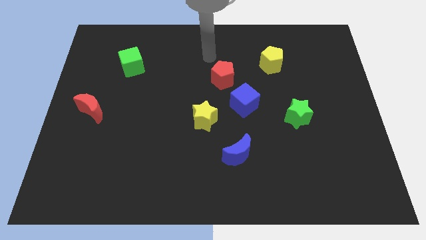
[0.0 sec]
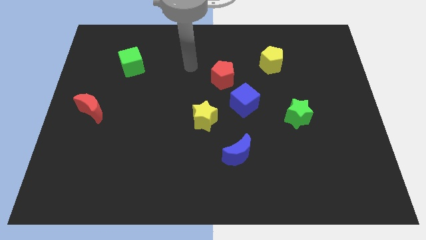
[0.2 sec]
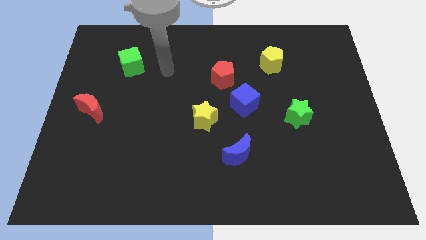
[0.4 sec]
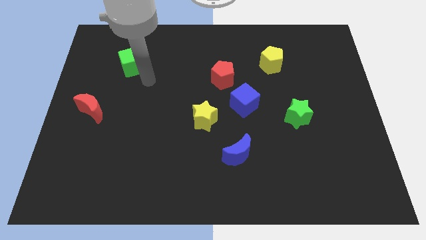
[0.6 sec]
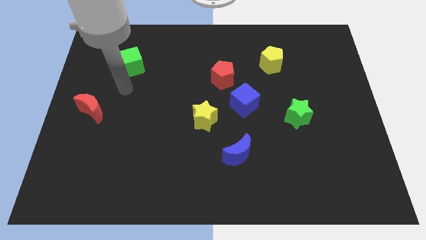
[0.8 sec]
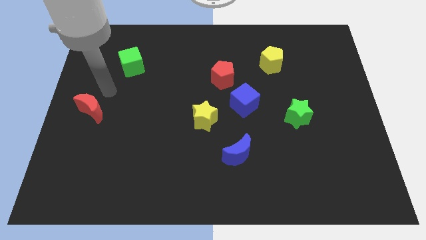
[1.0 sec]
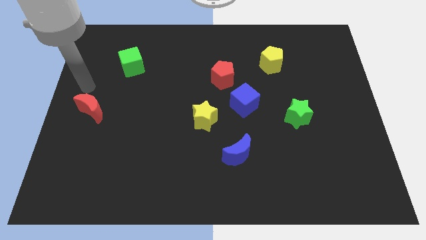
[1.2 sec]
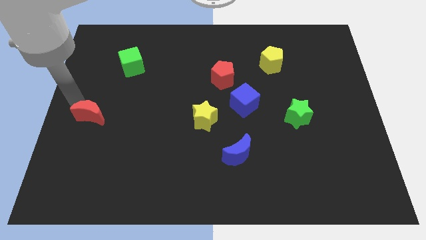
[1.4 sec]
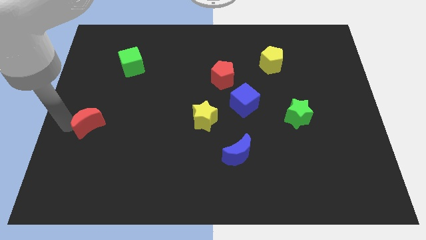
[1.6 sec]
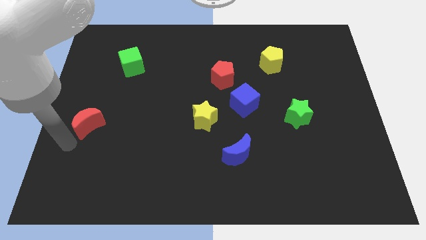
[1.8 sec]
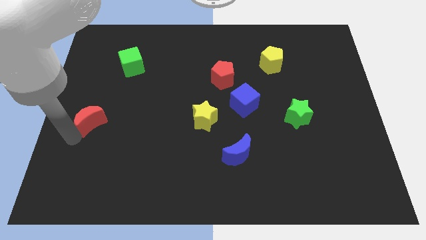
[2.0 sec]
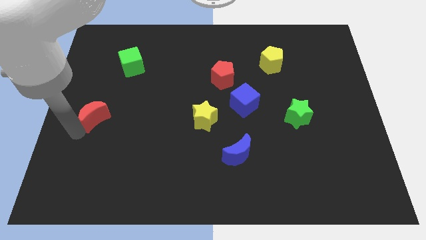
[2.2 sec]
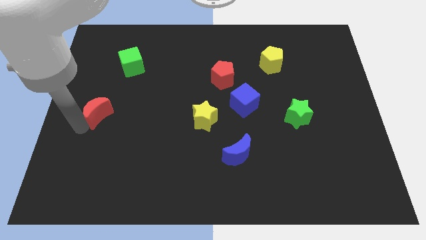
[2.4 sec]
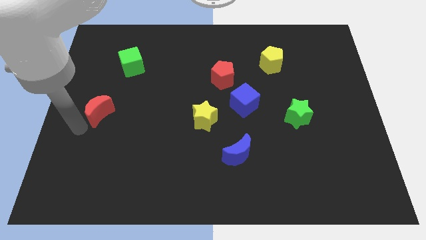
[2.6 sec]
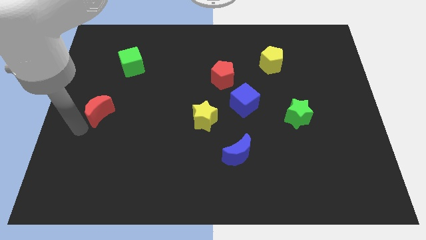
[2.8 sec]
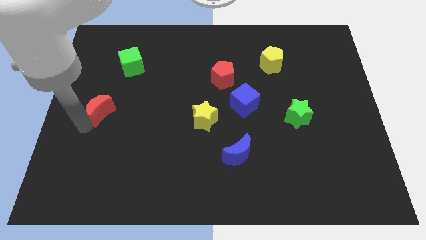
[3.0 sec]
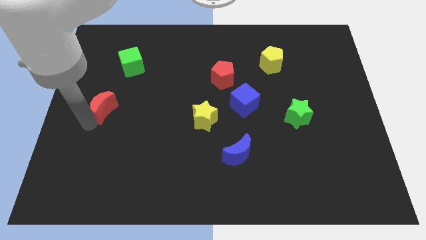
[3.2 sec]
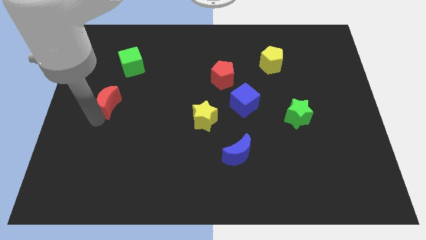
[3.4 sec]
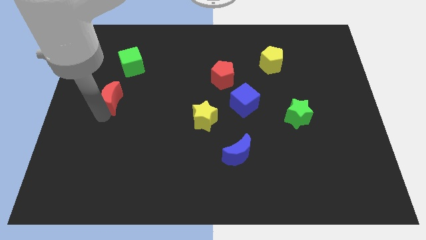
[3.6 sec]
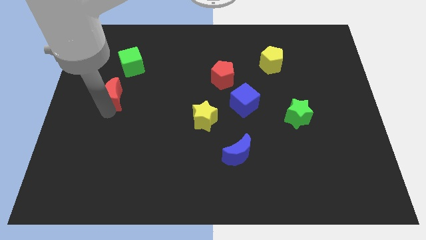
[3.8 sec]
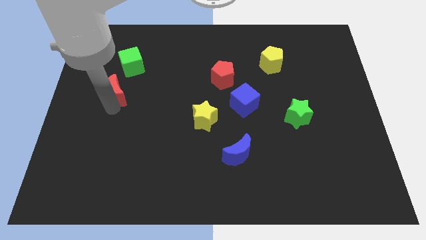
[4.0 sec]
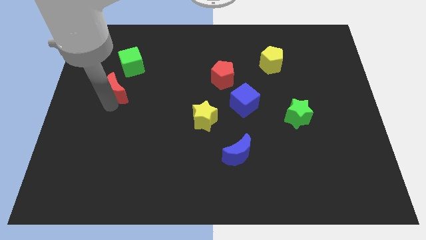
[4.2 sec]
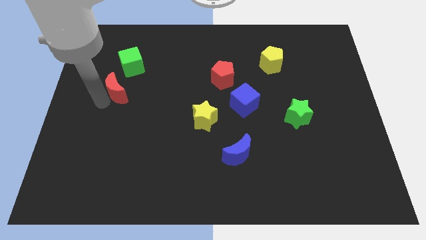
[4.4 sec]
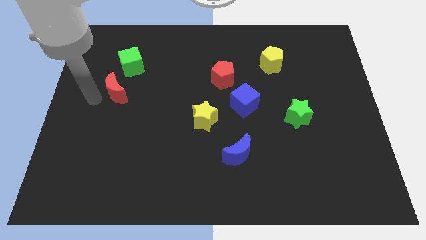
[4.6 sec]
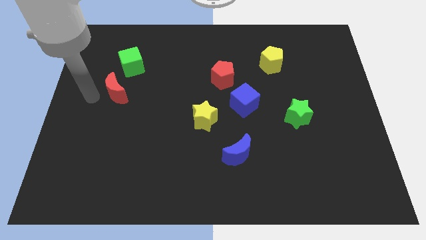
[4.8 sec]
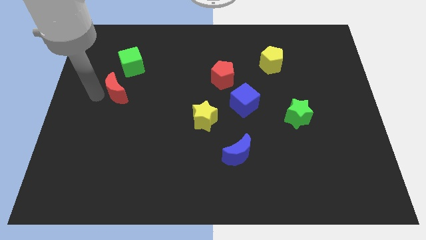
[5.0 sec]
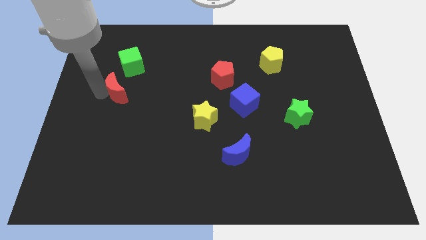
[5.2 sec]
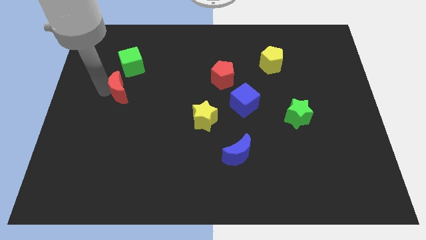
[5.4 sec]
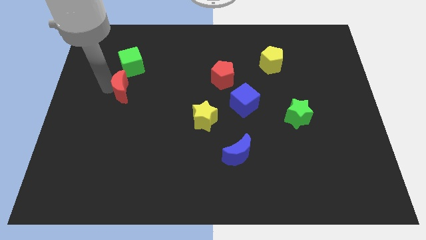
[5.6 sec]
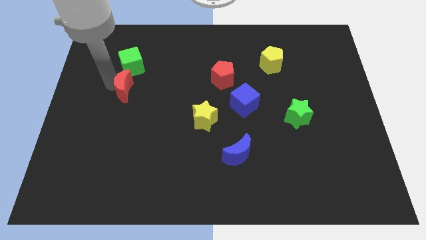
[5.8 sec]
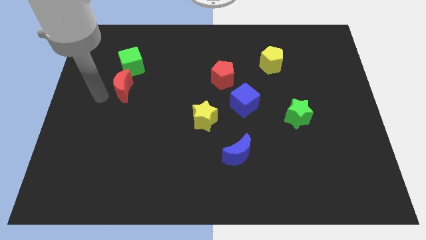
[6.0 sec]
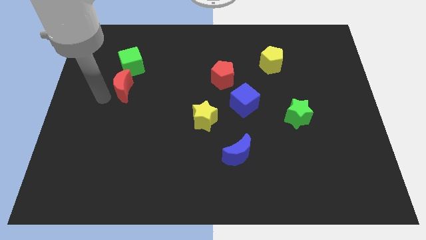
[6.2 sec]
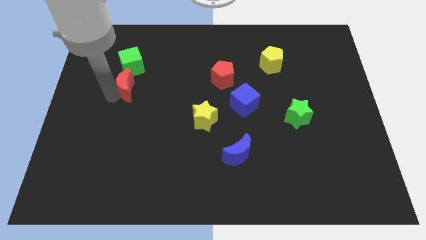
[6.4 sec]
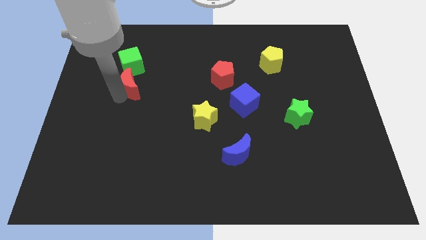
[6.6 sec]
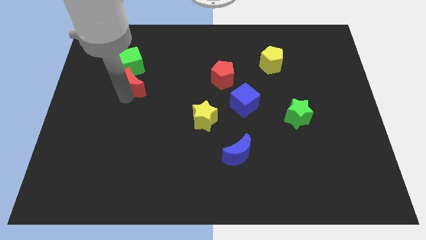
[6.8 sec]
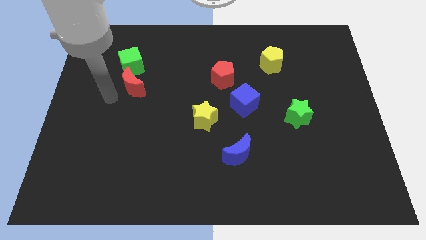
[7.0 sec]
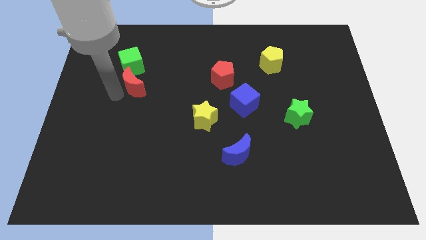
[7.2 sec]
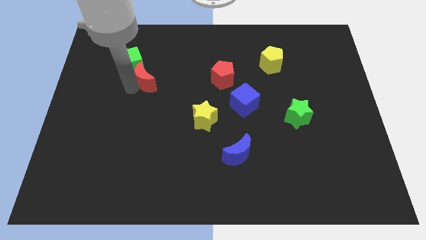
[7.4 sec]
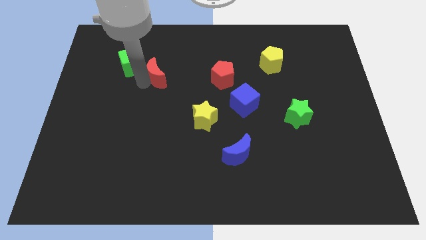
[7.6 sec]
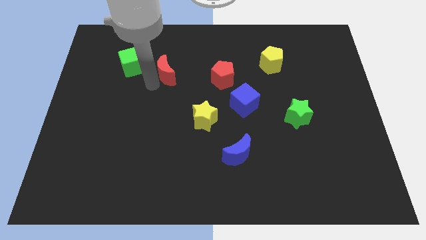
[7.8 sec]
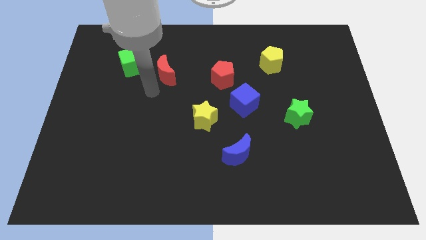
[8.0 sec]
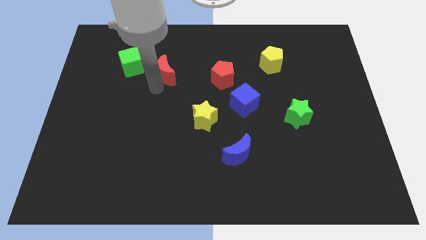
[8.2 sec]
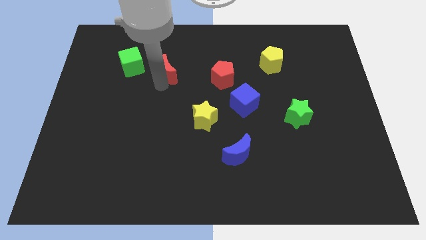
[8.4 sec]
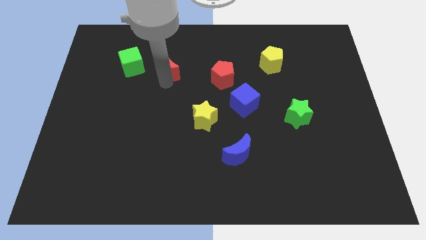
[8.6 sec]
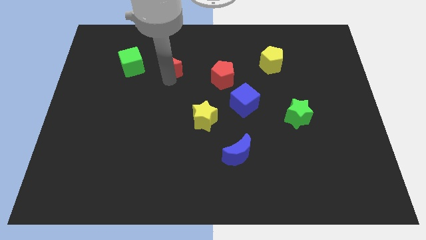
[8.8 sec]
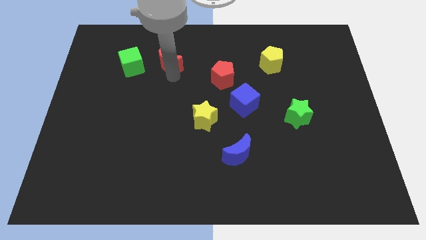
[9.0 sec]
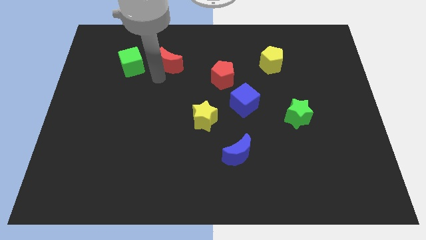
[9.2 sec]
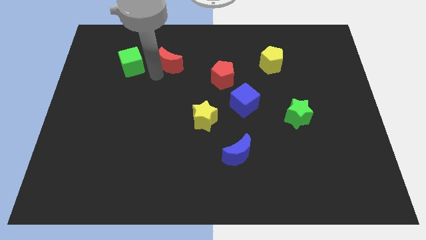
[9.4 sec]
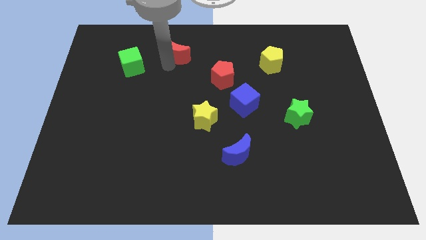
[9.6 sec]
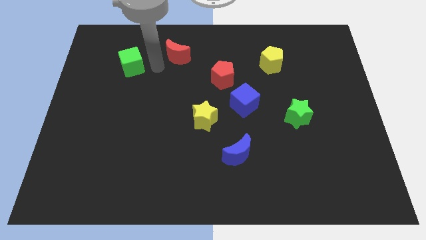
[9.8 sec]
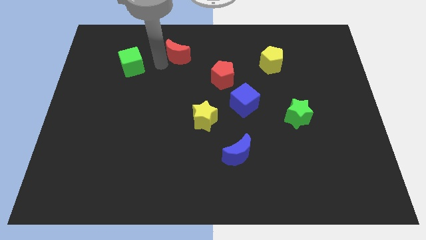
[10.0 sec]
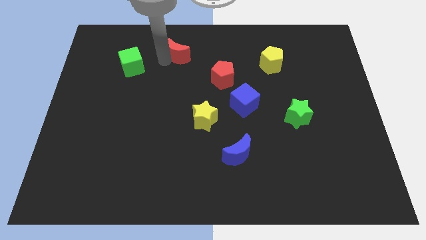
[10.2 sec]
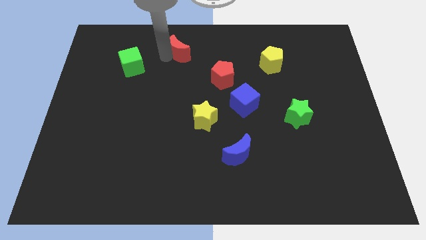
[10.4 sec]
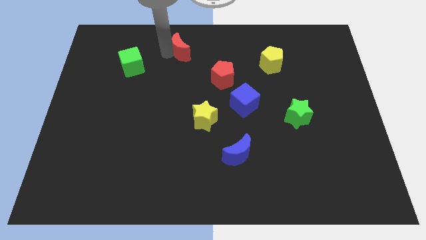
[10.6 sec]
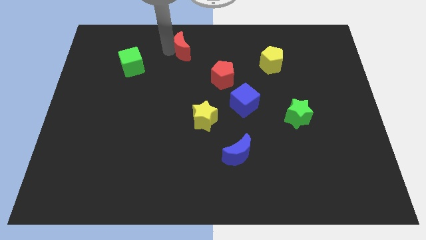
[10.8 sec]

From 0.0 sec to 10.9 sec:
put the red moon to the top side

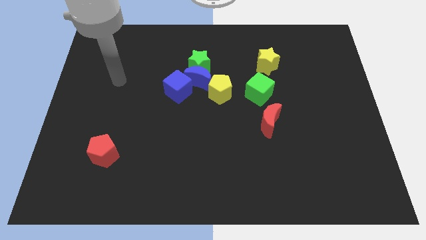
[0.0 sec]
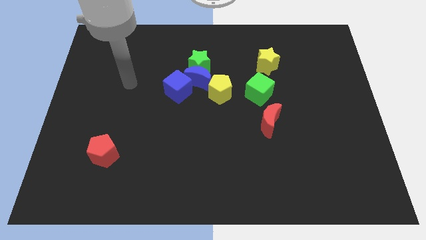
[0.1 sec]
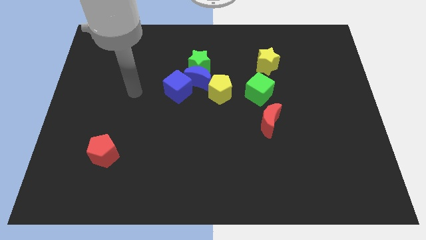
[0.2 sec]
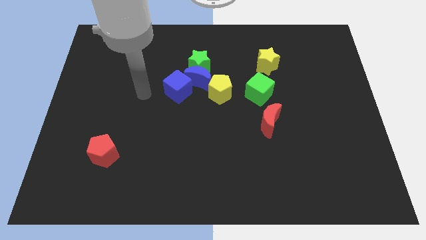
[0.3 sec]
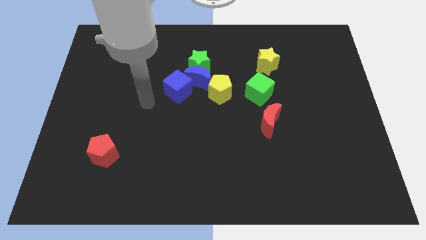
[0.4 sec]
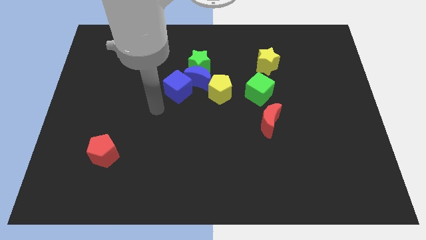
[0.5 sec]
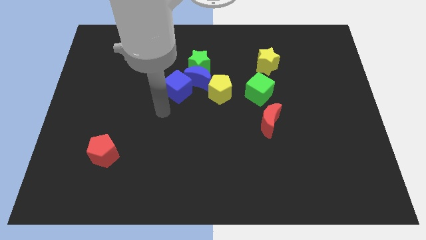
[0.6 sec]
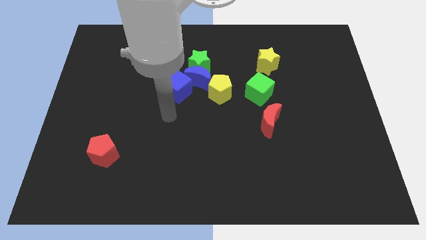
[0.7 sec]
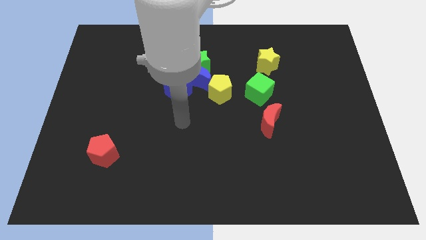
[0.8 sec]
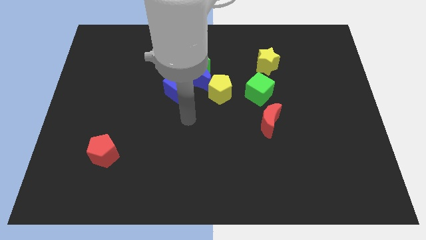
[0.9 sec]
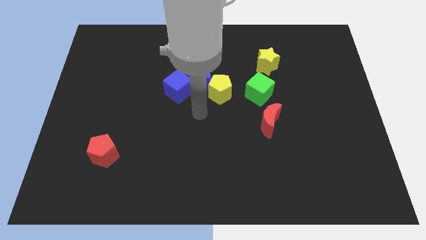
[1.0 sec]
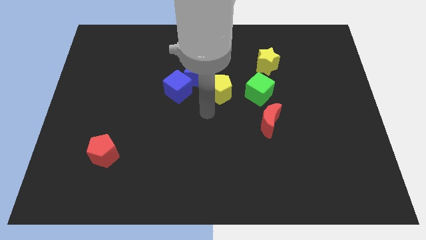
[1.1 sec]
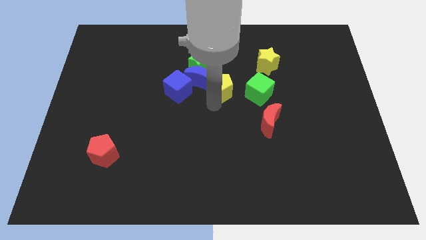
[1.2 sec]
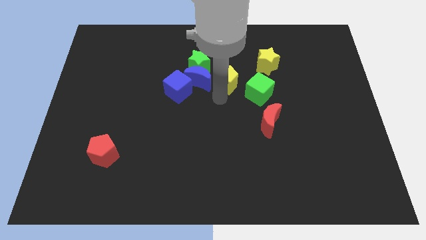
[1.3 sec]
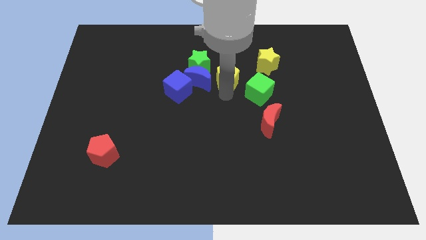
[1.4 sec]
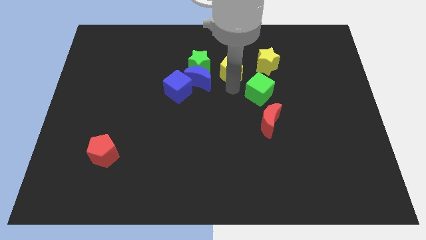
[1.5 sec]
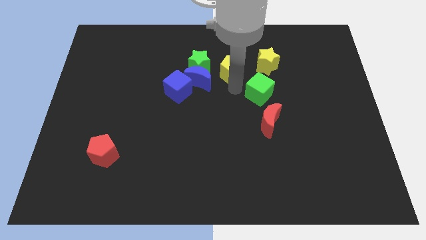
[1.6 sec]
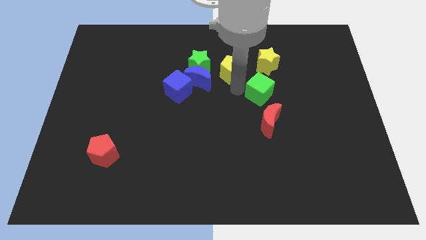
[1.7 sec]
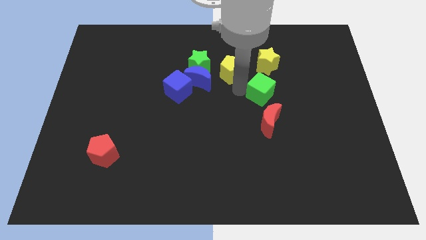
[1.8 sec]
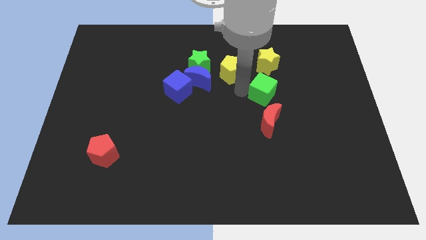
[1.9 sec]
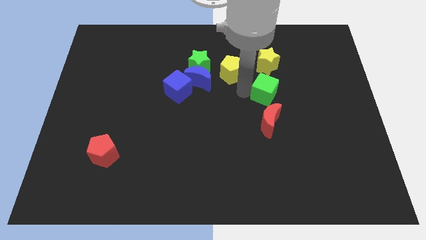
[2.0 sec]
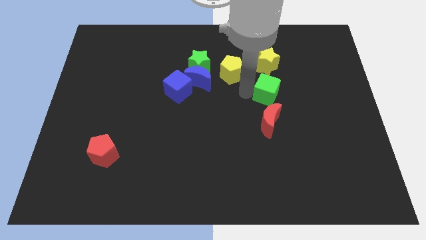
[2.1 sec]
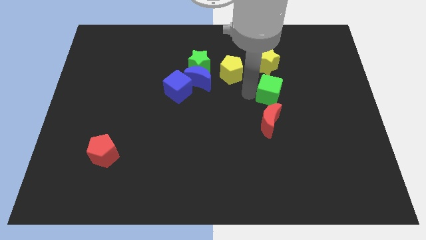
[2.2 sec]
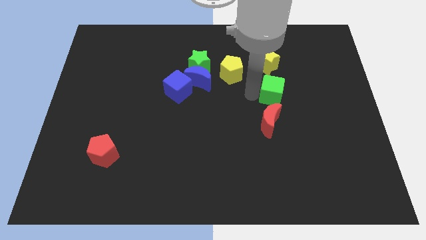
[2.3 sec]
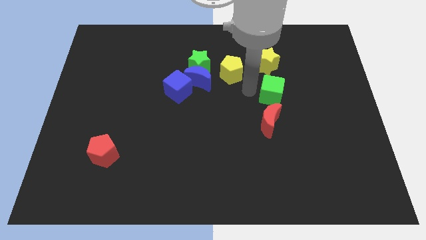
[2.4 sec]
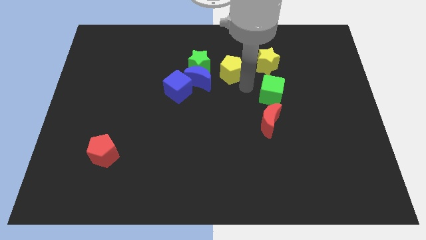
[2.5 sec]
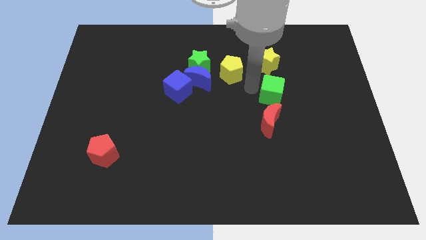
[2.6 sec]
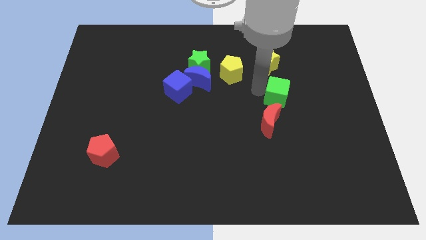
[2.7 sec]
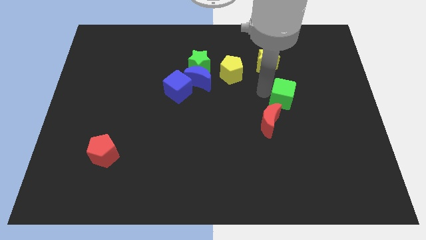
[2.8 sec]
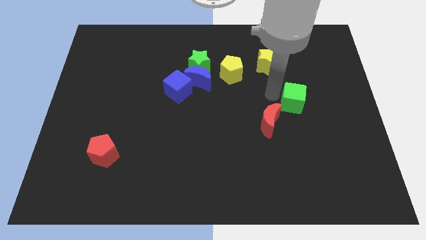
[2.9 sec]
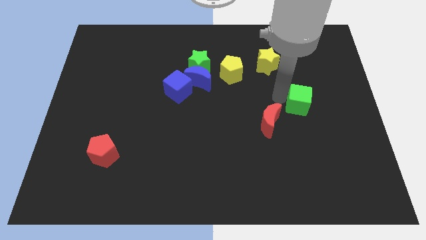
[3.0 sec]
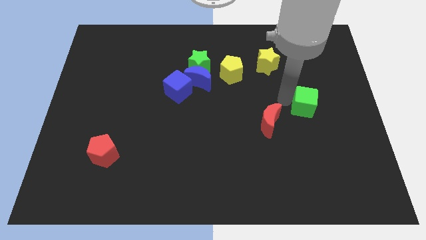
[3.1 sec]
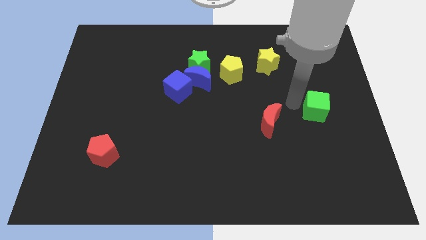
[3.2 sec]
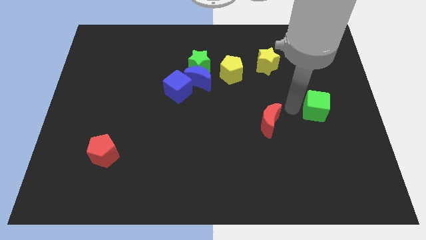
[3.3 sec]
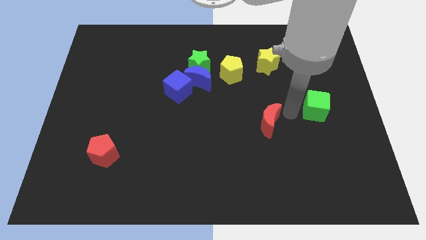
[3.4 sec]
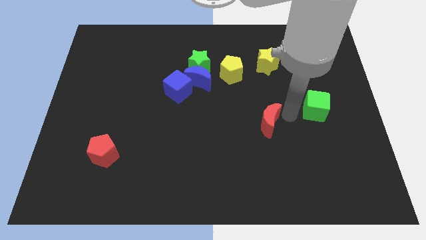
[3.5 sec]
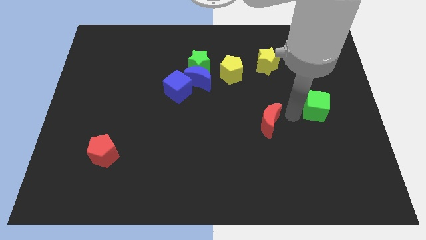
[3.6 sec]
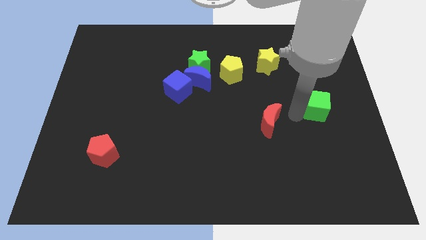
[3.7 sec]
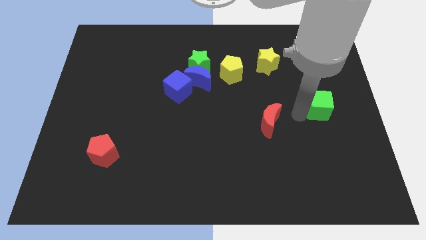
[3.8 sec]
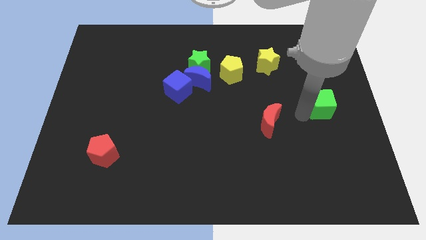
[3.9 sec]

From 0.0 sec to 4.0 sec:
put the green cube to the right side
